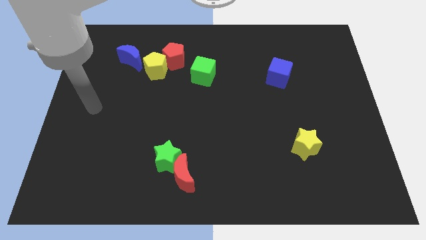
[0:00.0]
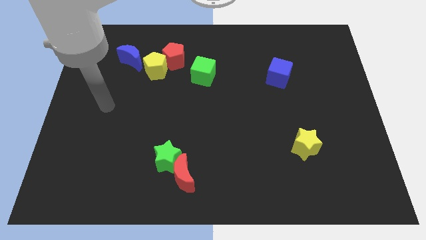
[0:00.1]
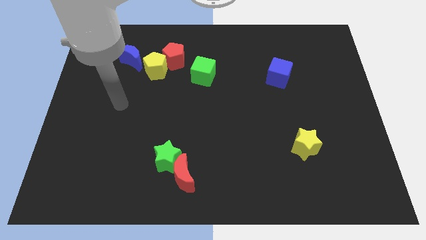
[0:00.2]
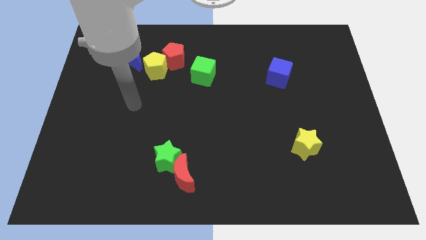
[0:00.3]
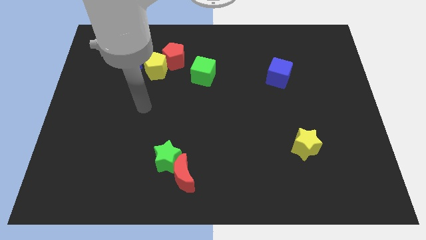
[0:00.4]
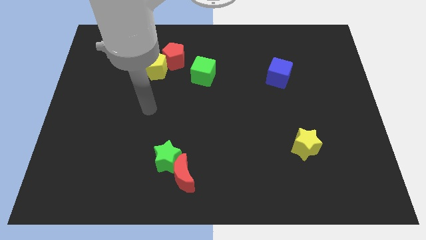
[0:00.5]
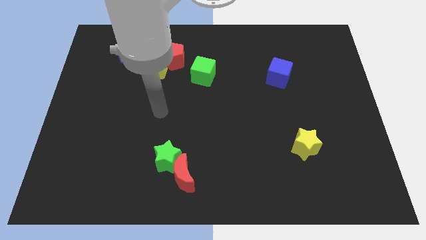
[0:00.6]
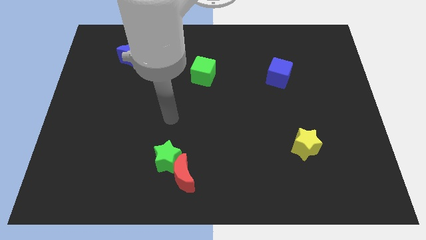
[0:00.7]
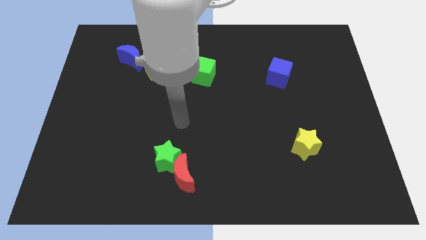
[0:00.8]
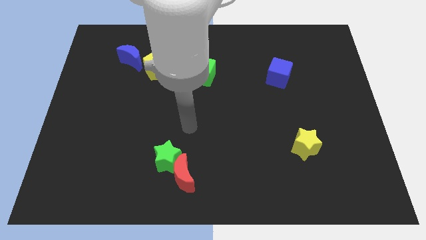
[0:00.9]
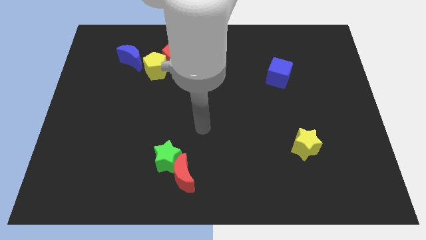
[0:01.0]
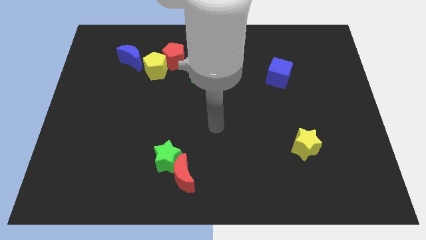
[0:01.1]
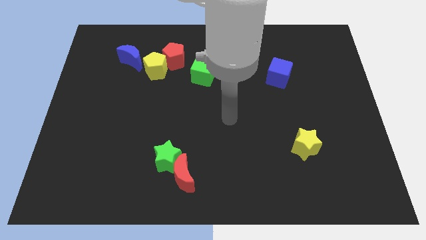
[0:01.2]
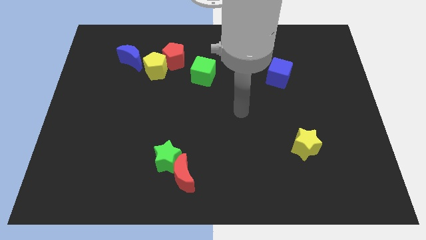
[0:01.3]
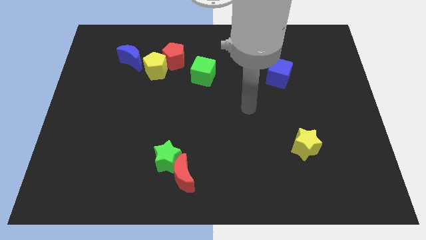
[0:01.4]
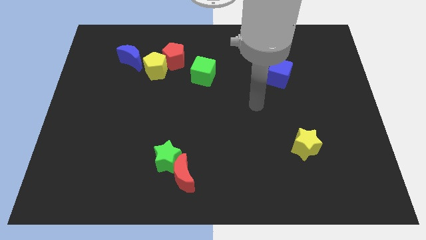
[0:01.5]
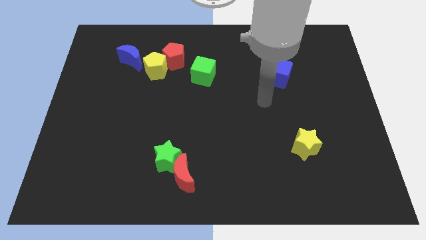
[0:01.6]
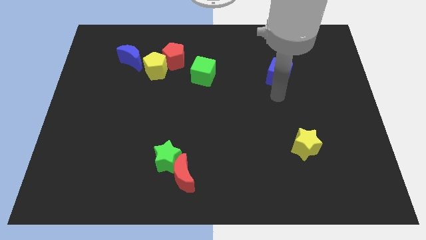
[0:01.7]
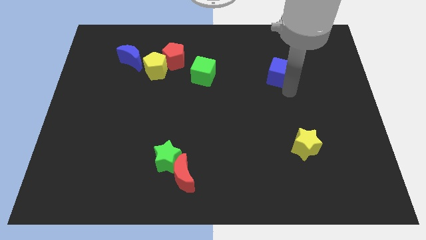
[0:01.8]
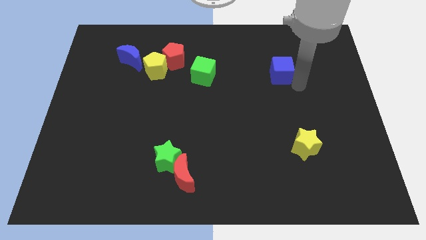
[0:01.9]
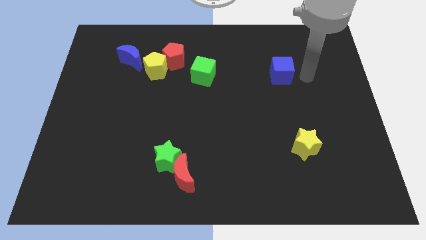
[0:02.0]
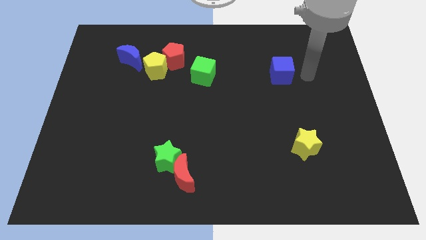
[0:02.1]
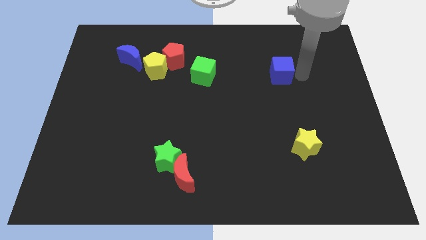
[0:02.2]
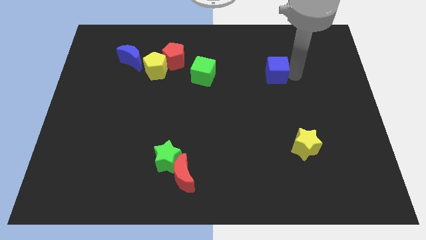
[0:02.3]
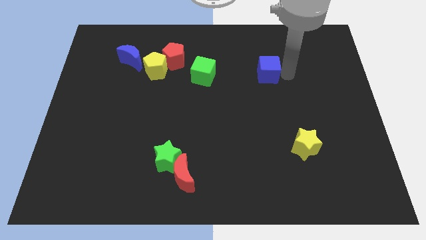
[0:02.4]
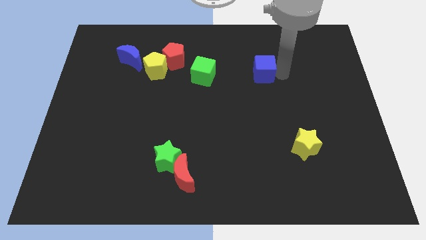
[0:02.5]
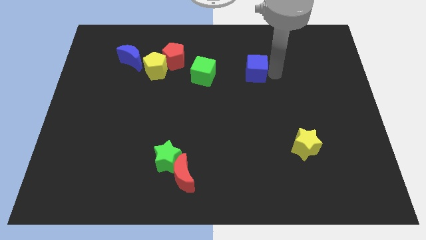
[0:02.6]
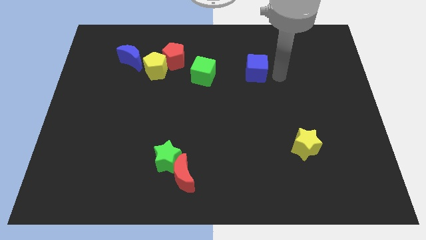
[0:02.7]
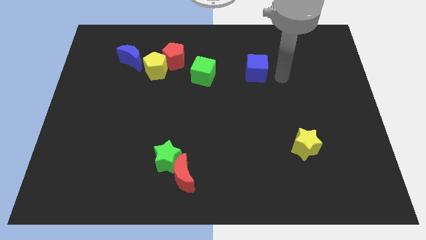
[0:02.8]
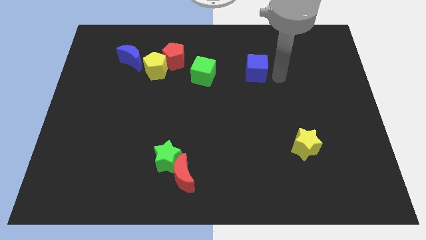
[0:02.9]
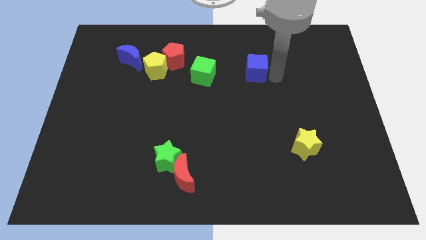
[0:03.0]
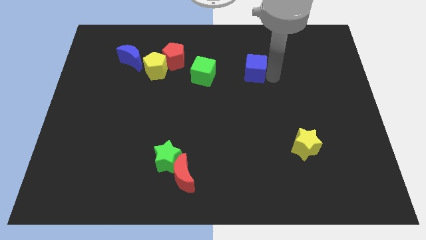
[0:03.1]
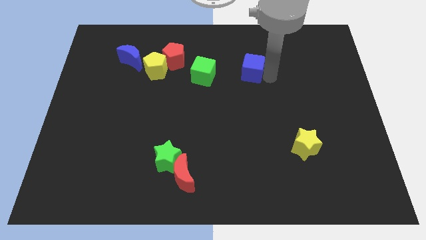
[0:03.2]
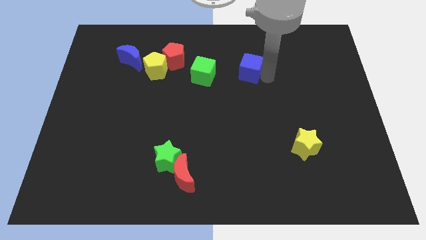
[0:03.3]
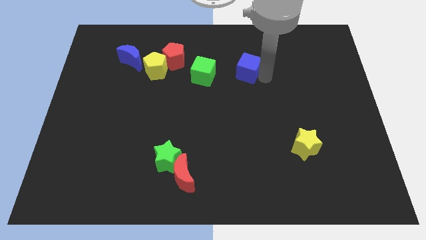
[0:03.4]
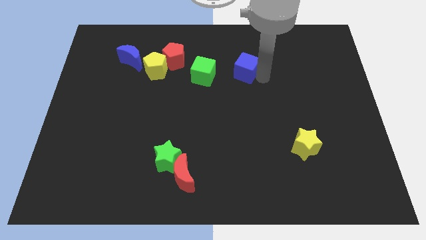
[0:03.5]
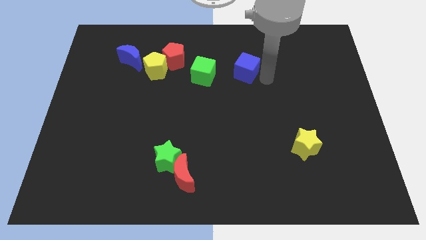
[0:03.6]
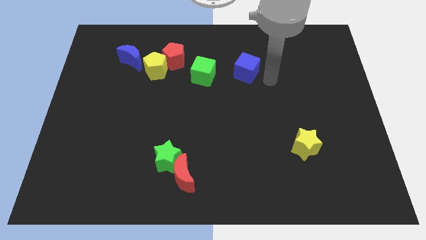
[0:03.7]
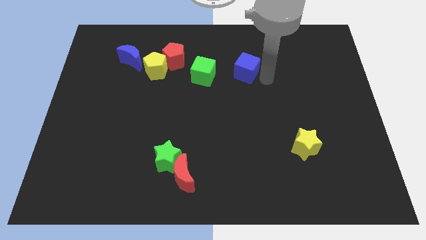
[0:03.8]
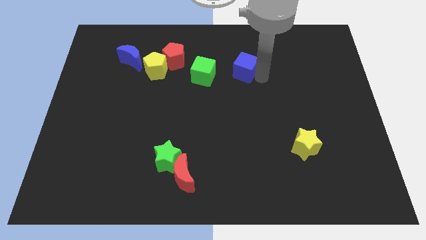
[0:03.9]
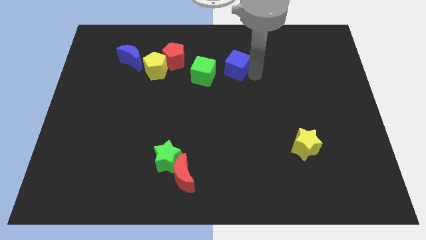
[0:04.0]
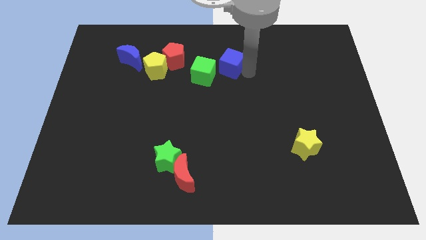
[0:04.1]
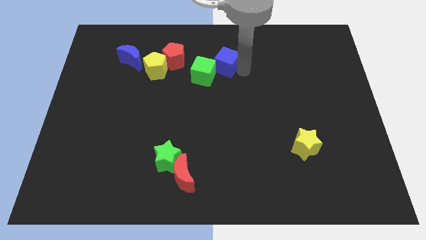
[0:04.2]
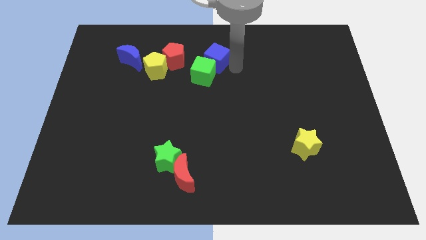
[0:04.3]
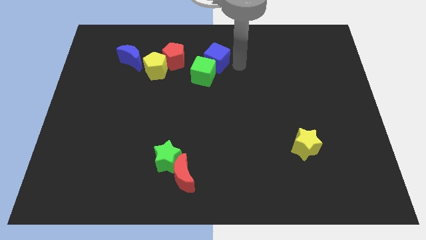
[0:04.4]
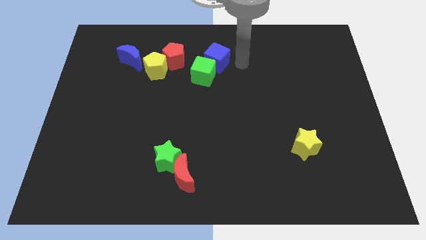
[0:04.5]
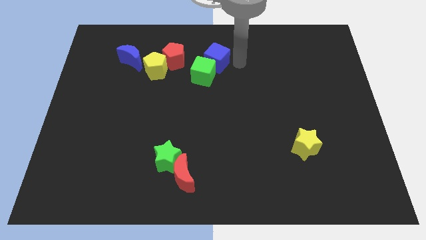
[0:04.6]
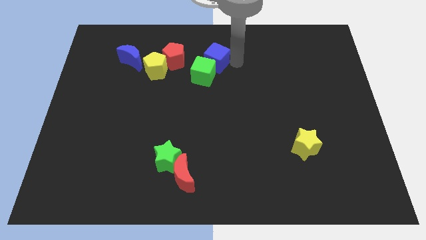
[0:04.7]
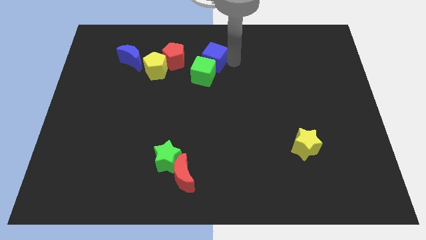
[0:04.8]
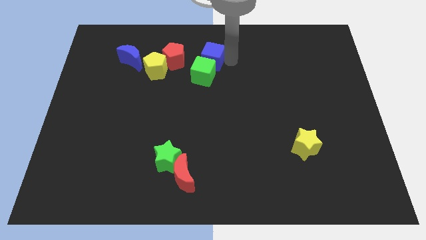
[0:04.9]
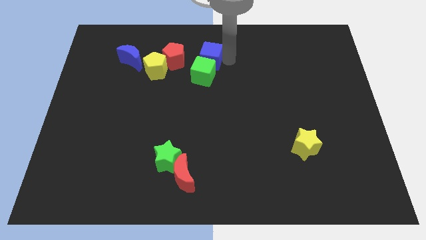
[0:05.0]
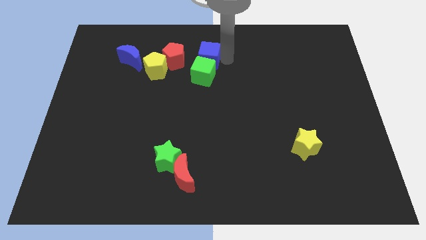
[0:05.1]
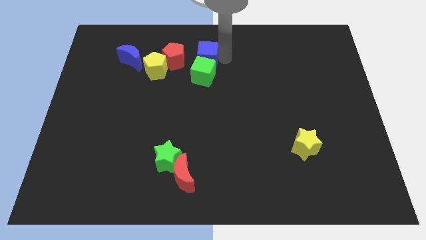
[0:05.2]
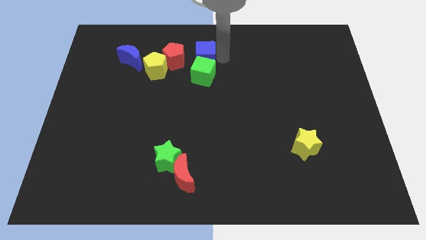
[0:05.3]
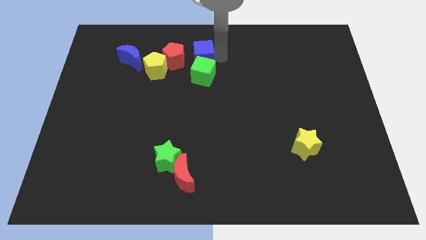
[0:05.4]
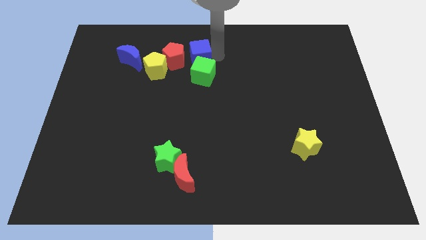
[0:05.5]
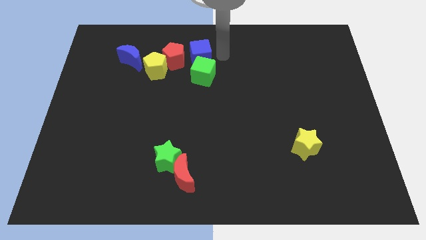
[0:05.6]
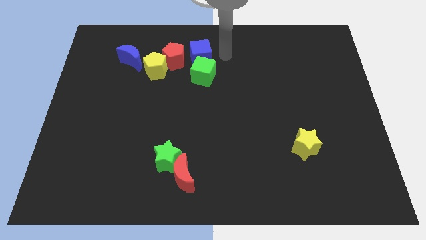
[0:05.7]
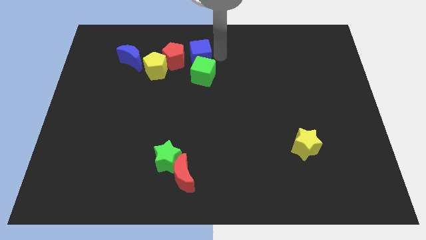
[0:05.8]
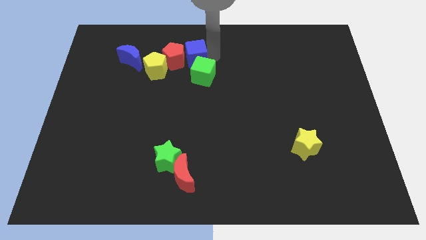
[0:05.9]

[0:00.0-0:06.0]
move the blue cube towards the red pentagon

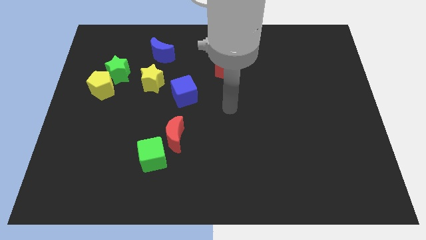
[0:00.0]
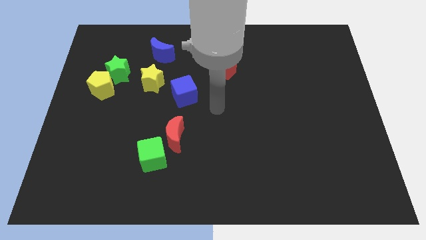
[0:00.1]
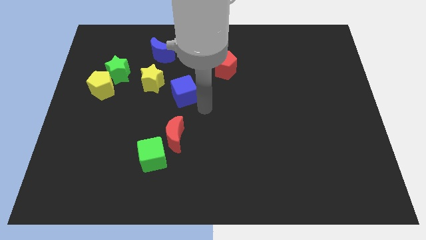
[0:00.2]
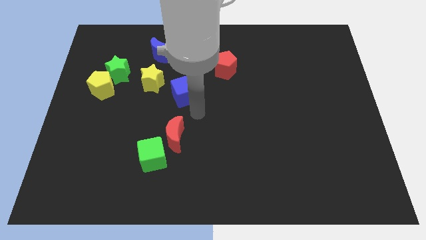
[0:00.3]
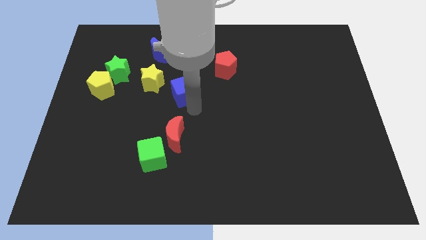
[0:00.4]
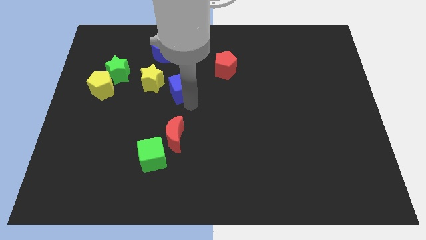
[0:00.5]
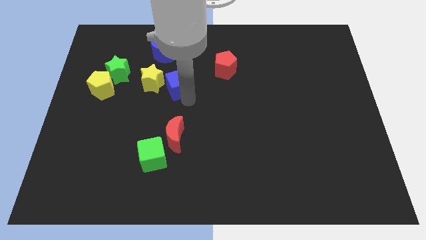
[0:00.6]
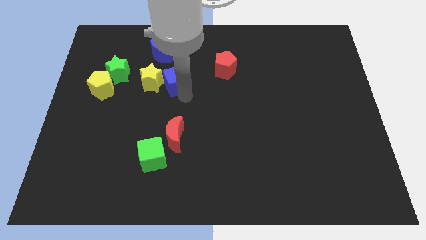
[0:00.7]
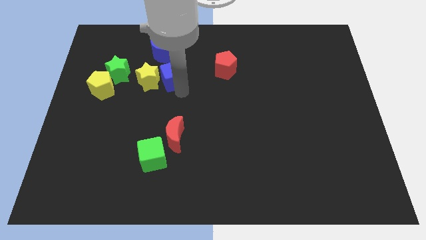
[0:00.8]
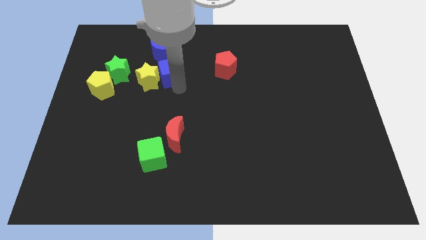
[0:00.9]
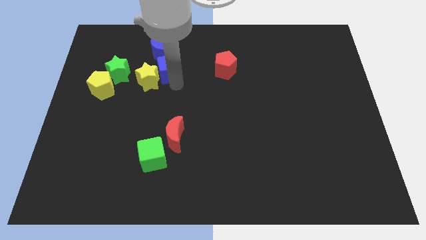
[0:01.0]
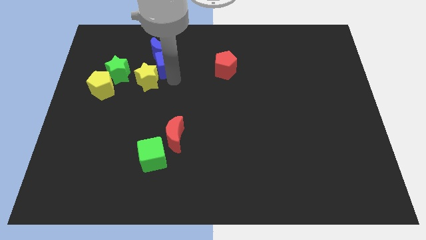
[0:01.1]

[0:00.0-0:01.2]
slide the blue cube to the blue moon
